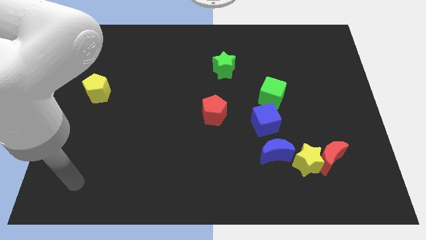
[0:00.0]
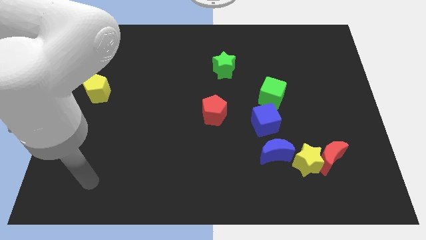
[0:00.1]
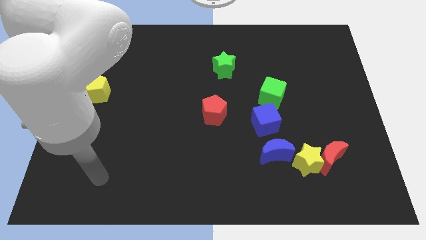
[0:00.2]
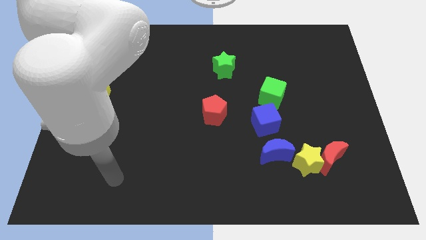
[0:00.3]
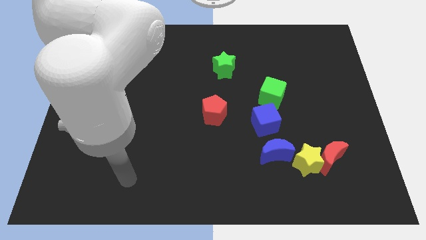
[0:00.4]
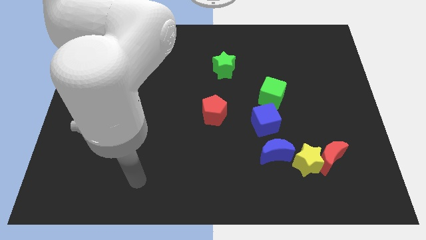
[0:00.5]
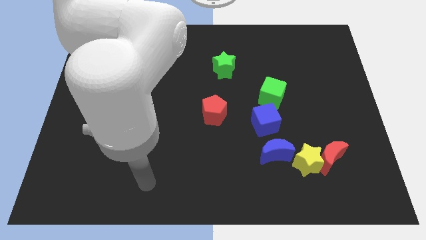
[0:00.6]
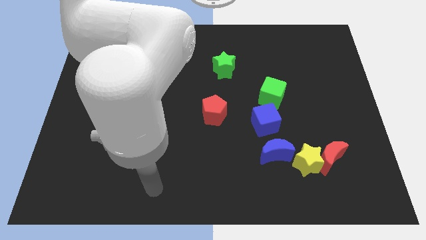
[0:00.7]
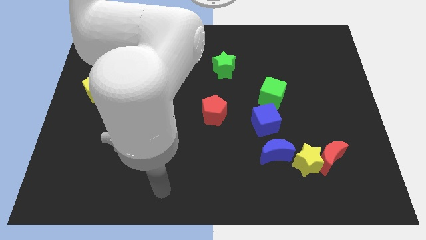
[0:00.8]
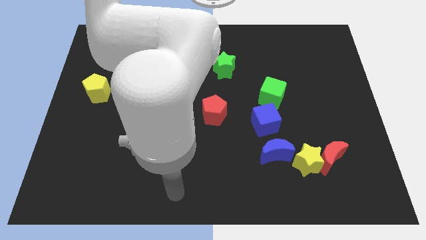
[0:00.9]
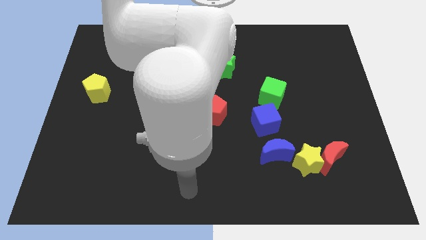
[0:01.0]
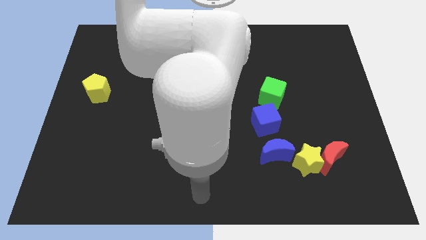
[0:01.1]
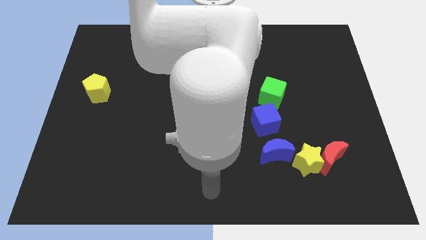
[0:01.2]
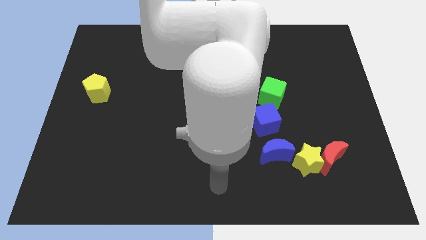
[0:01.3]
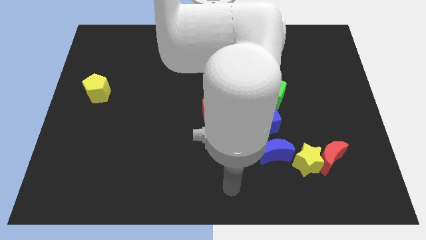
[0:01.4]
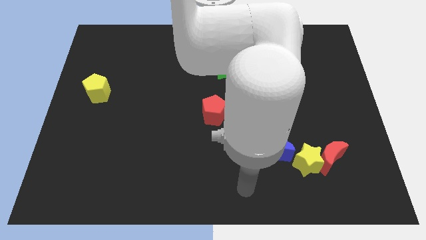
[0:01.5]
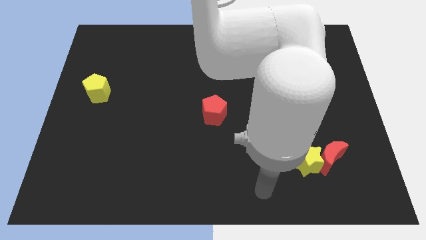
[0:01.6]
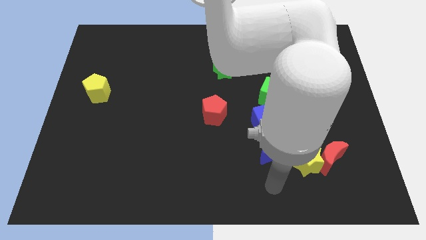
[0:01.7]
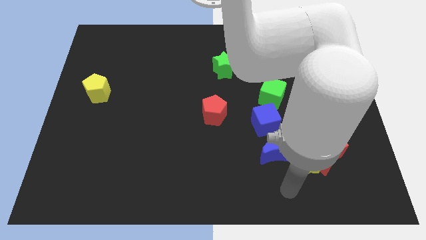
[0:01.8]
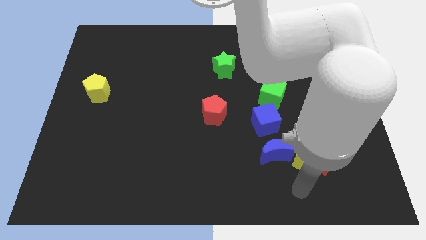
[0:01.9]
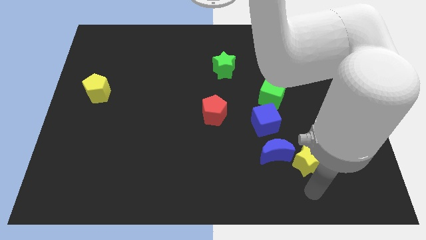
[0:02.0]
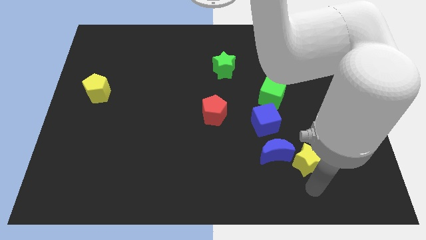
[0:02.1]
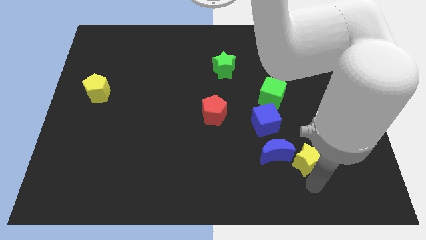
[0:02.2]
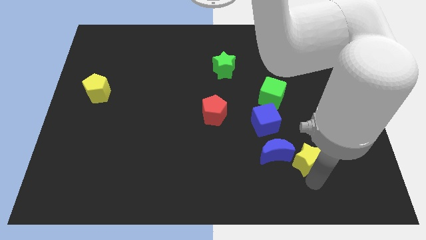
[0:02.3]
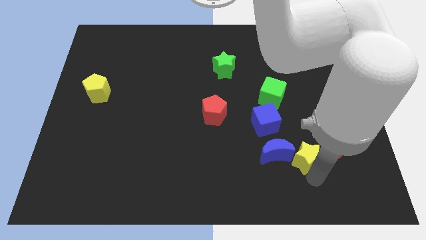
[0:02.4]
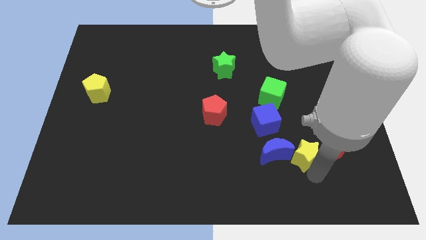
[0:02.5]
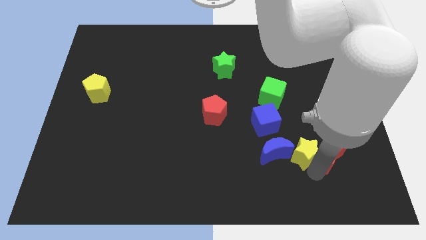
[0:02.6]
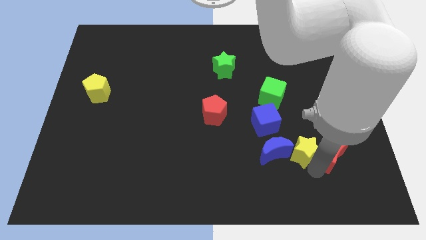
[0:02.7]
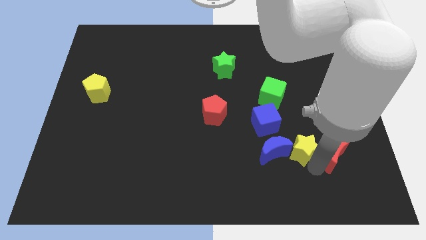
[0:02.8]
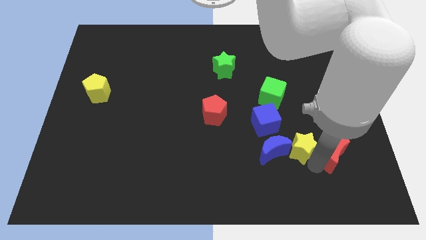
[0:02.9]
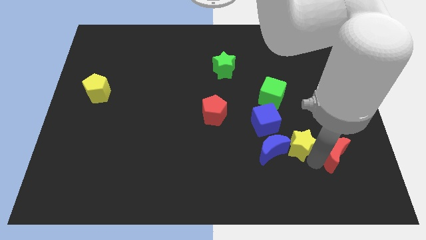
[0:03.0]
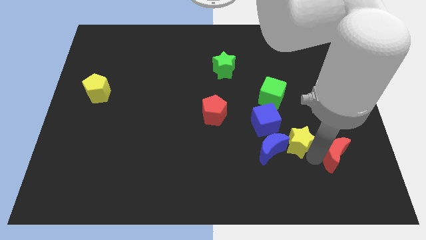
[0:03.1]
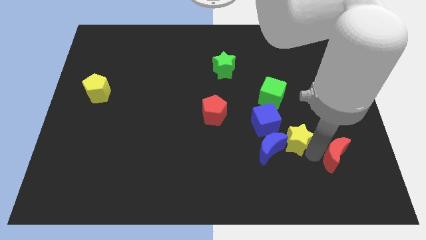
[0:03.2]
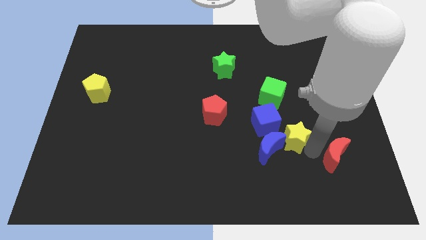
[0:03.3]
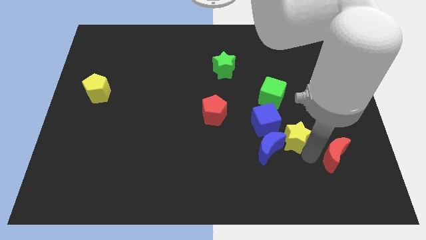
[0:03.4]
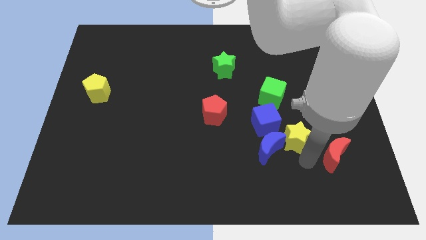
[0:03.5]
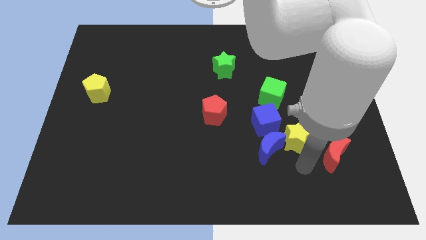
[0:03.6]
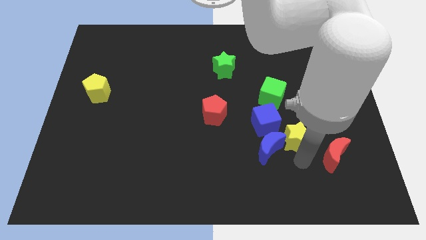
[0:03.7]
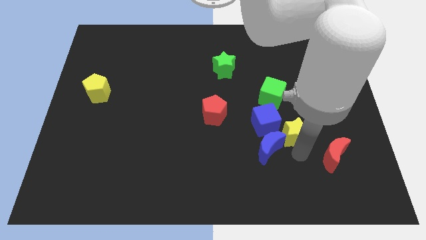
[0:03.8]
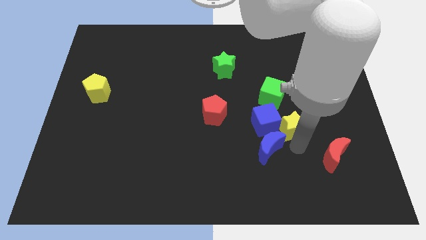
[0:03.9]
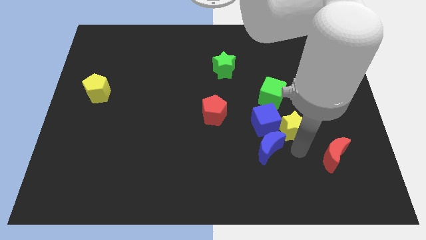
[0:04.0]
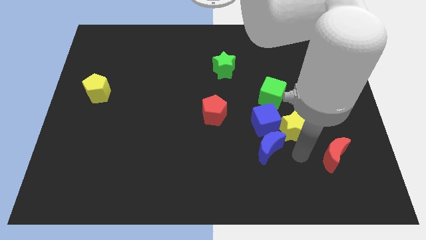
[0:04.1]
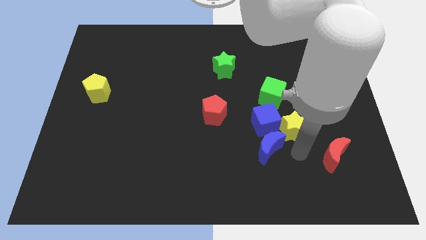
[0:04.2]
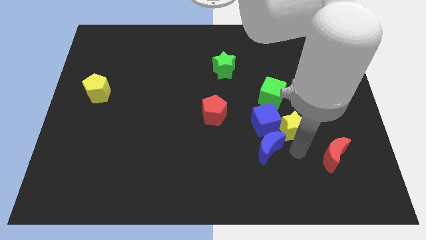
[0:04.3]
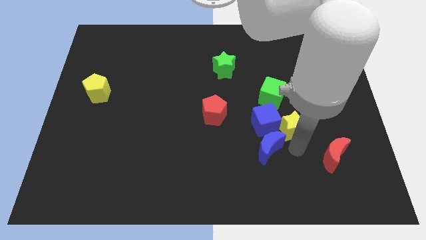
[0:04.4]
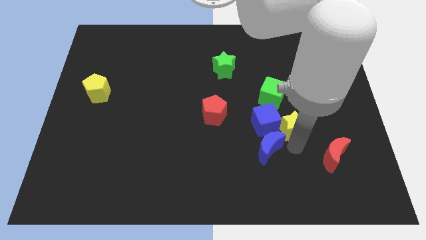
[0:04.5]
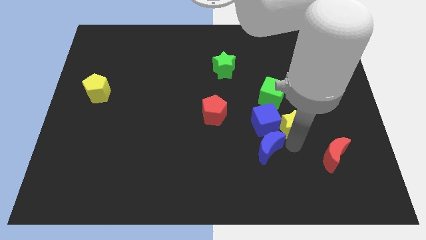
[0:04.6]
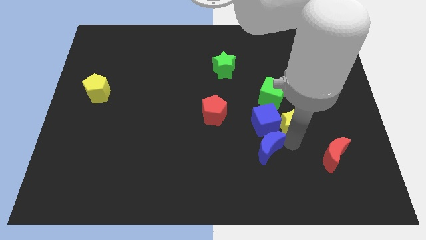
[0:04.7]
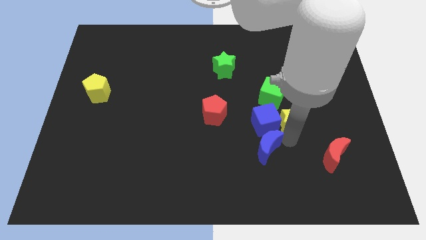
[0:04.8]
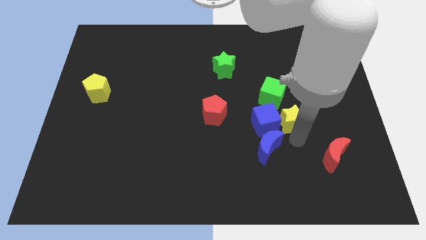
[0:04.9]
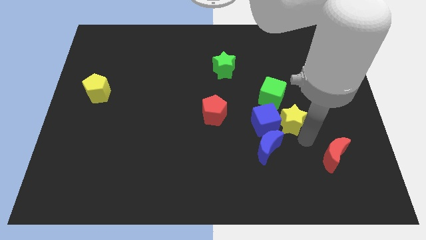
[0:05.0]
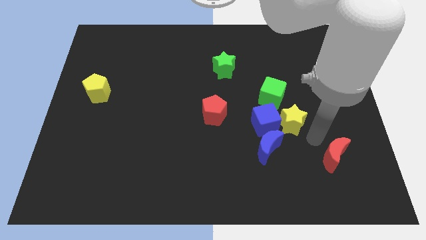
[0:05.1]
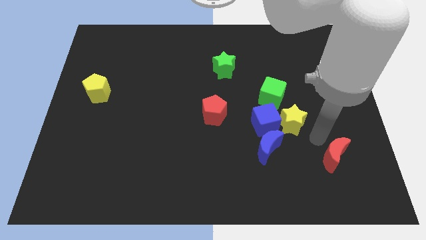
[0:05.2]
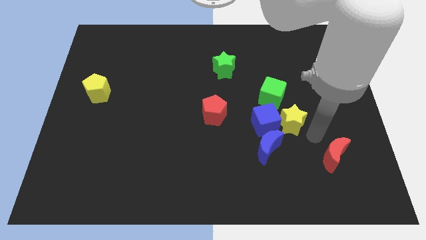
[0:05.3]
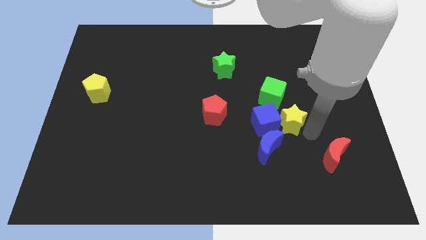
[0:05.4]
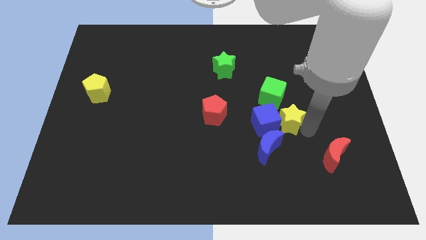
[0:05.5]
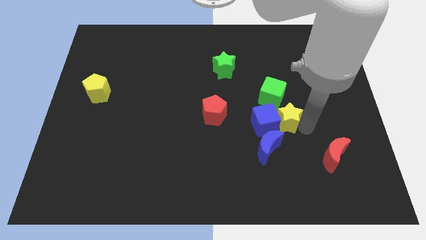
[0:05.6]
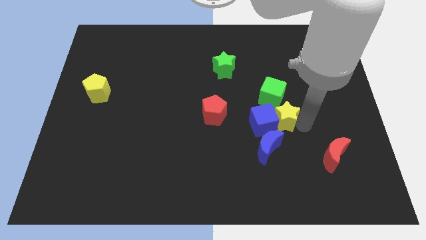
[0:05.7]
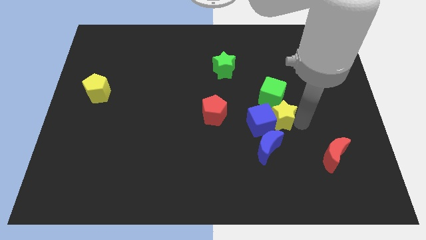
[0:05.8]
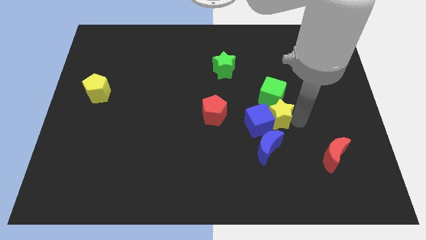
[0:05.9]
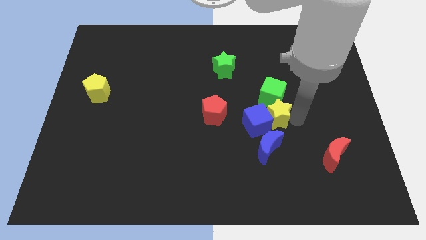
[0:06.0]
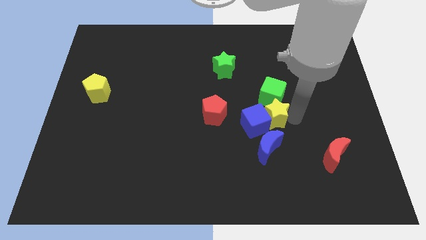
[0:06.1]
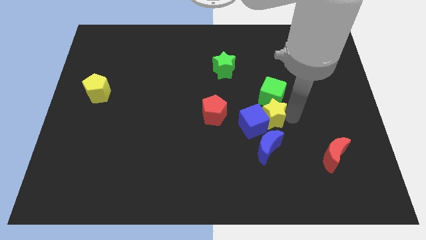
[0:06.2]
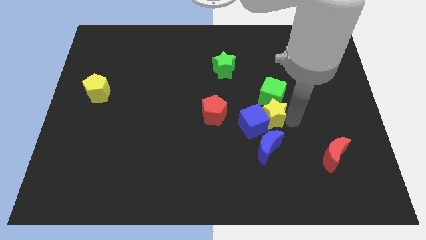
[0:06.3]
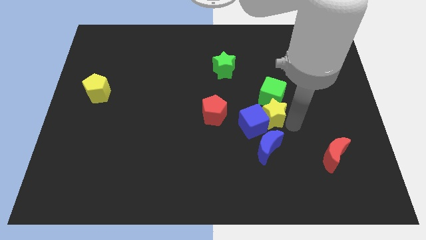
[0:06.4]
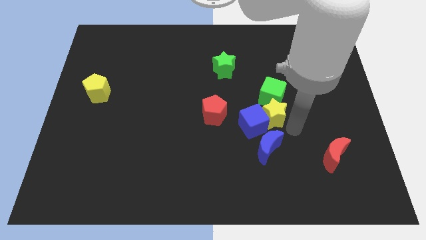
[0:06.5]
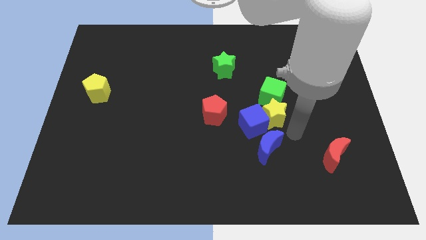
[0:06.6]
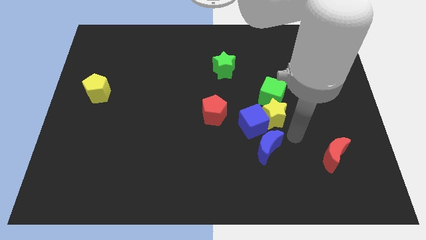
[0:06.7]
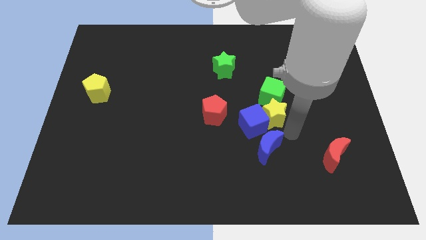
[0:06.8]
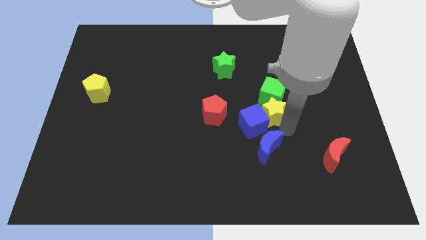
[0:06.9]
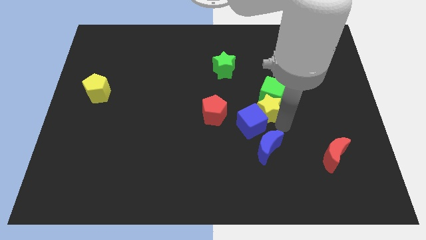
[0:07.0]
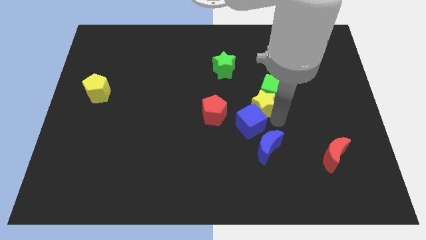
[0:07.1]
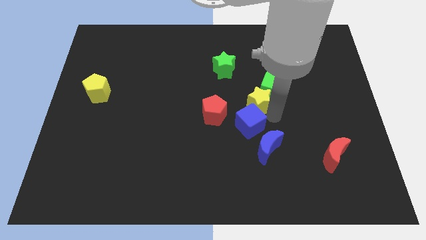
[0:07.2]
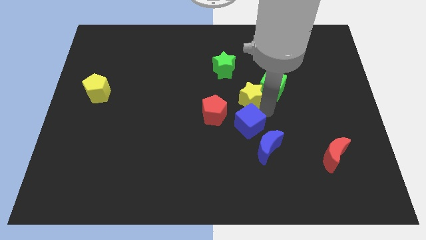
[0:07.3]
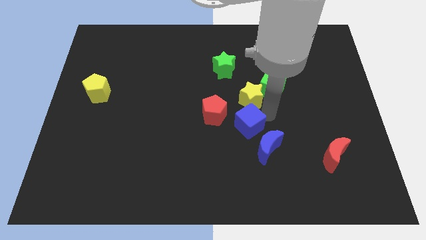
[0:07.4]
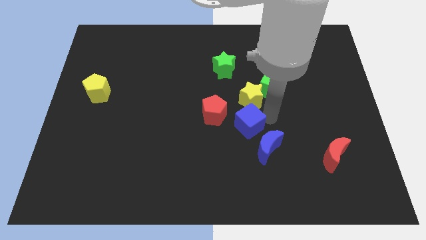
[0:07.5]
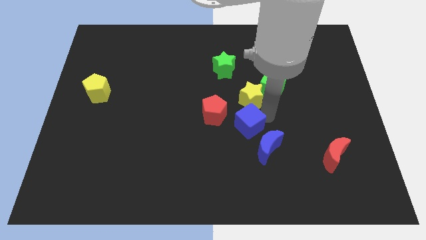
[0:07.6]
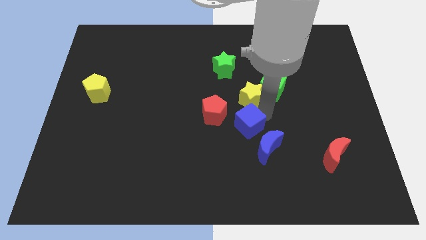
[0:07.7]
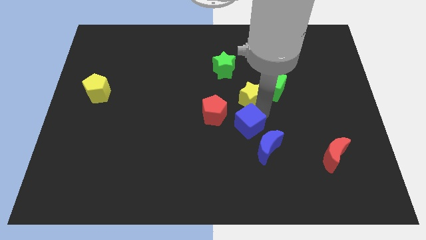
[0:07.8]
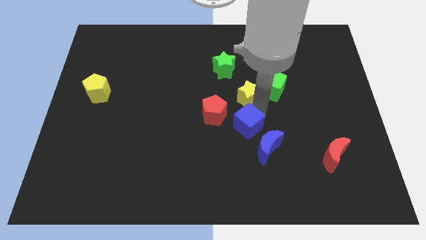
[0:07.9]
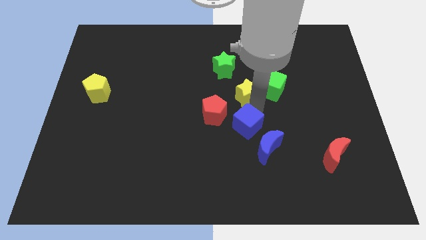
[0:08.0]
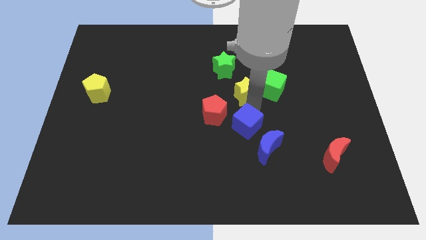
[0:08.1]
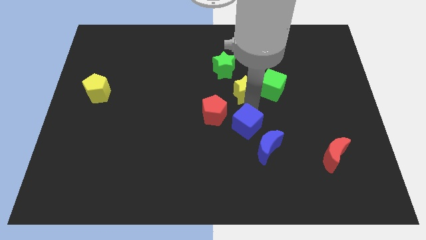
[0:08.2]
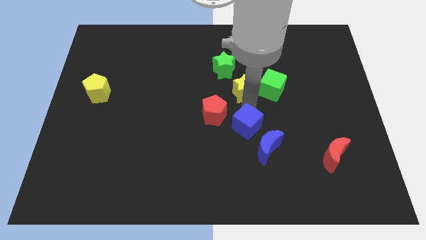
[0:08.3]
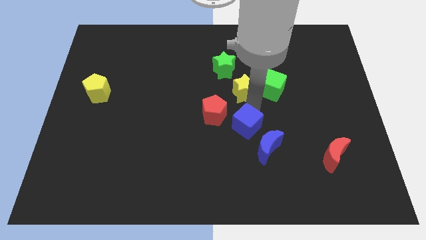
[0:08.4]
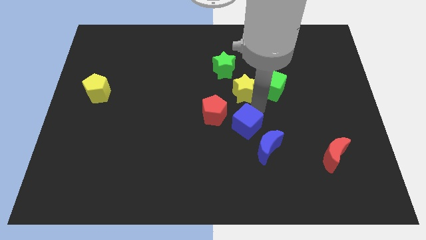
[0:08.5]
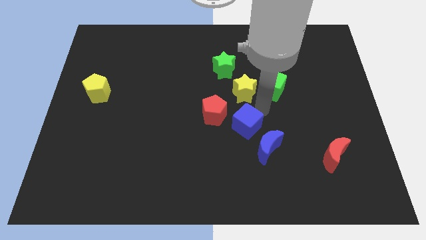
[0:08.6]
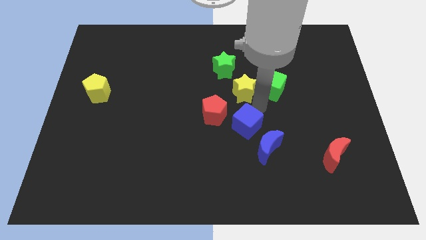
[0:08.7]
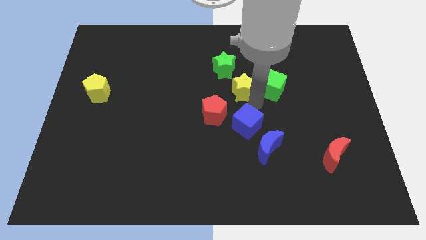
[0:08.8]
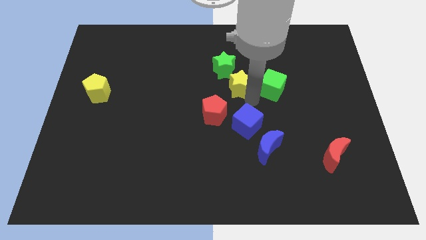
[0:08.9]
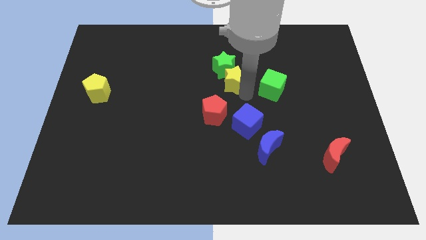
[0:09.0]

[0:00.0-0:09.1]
move the yellow star towards the green star
